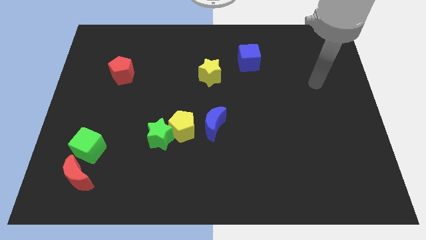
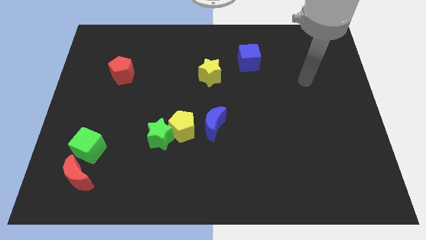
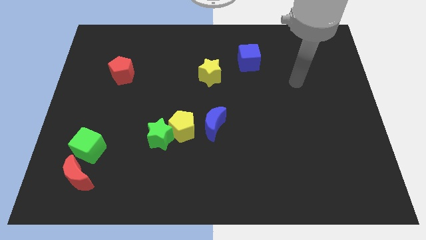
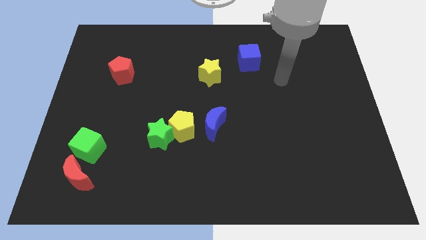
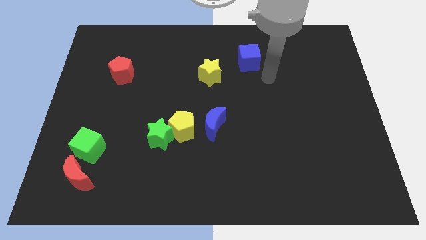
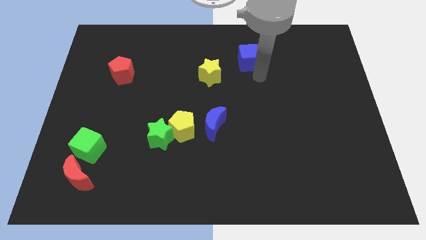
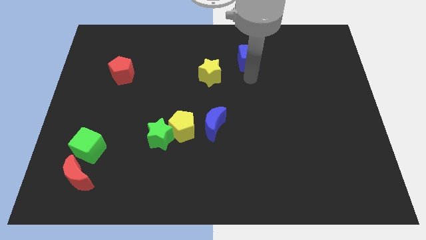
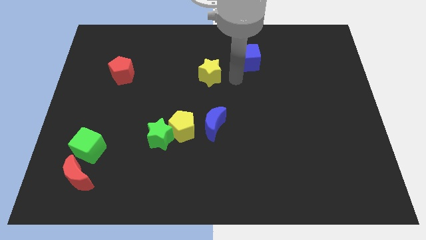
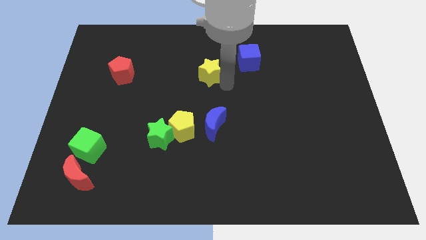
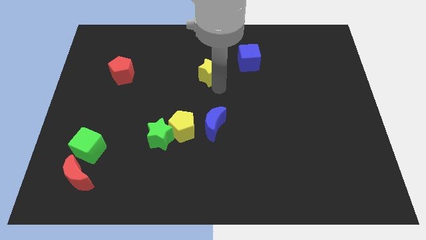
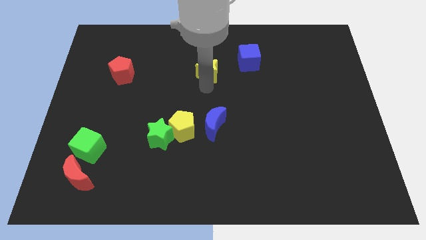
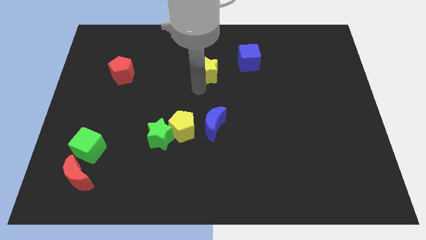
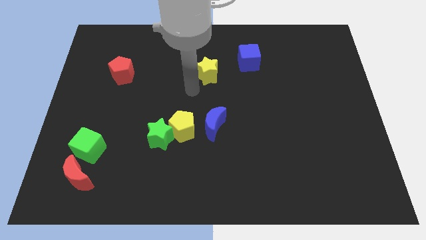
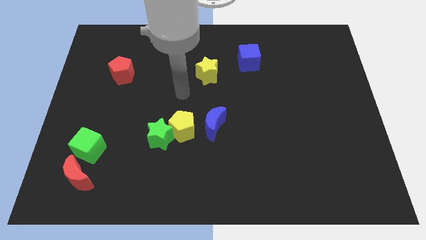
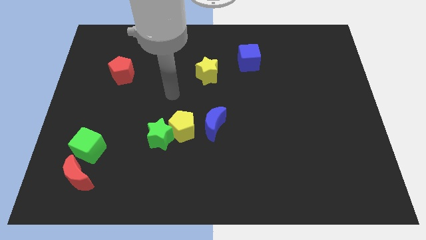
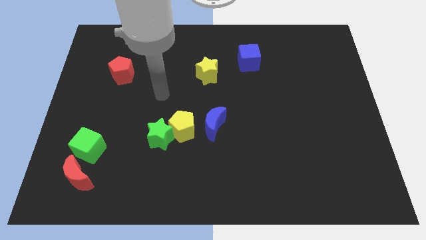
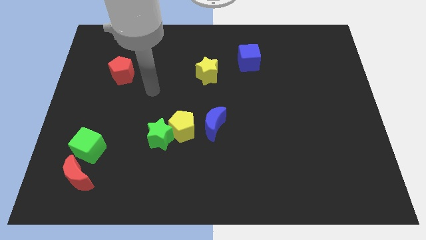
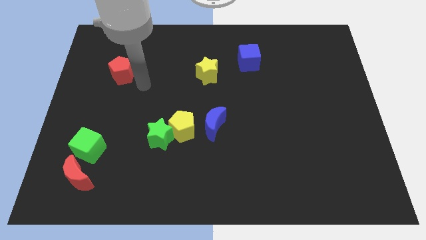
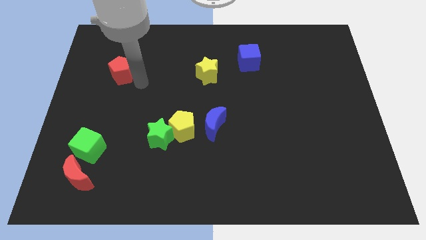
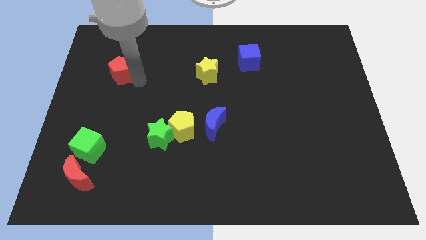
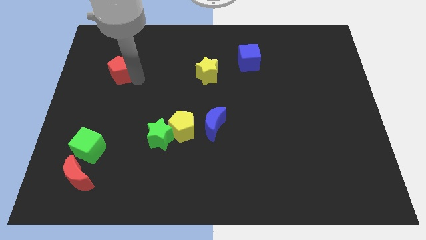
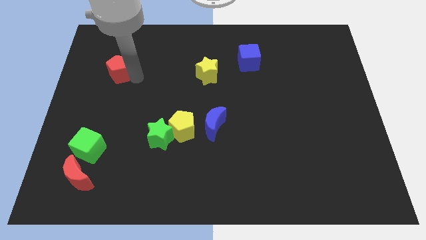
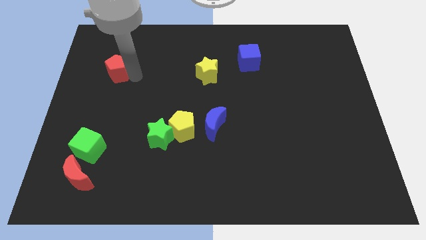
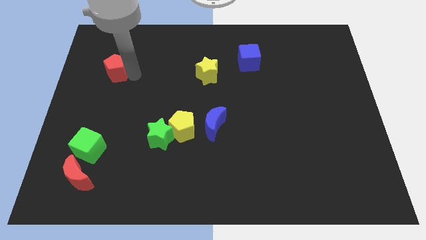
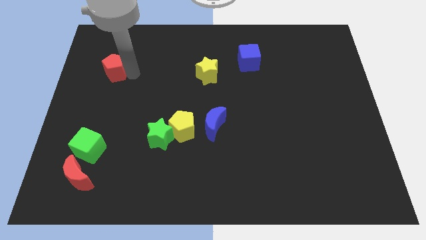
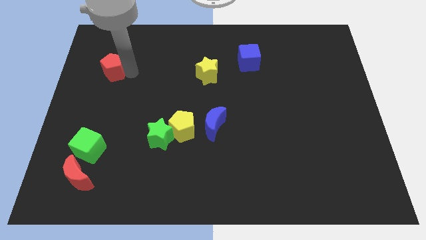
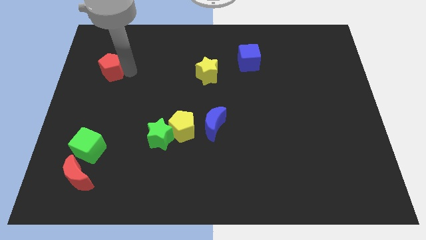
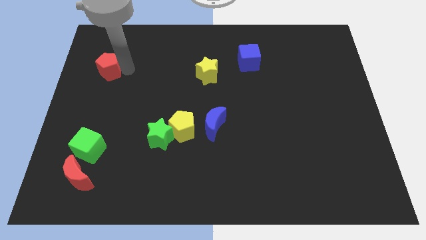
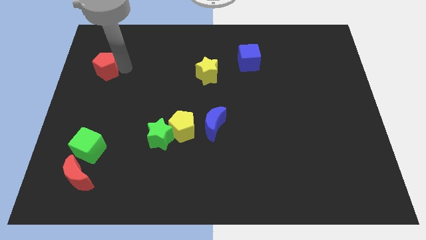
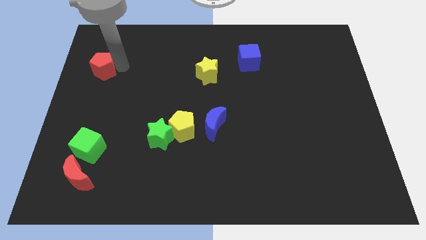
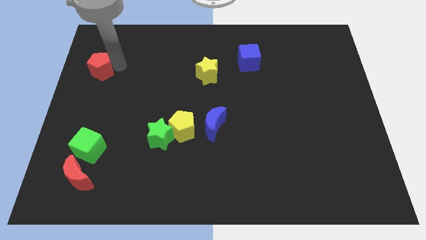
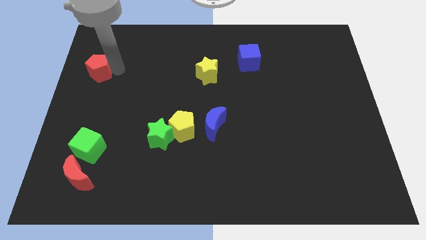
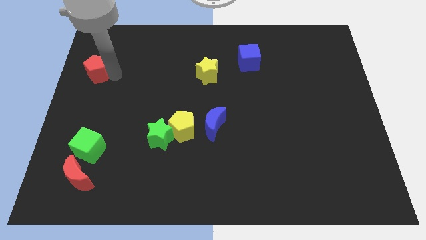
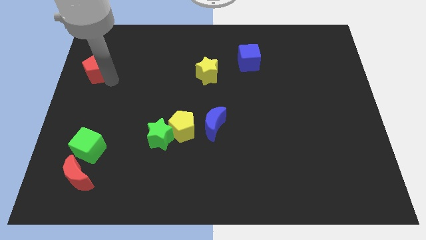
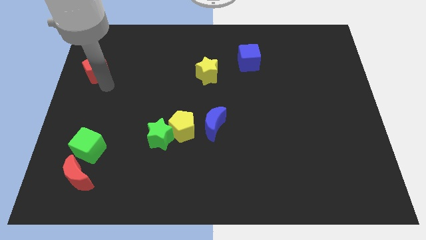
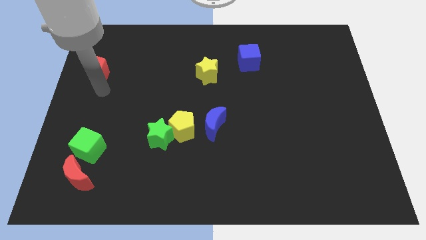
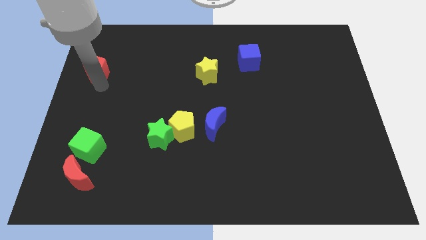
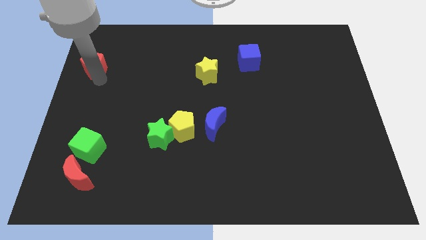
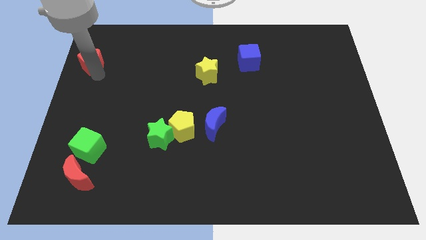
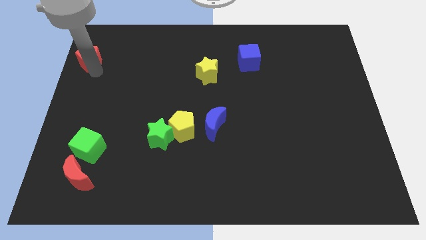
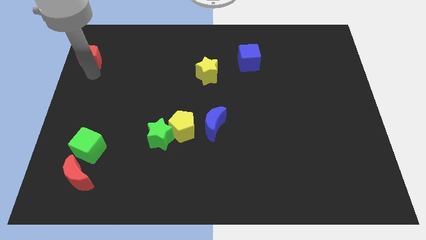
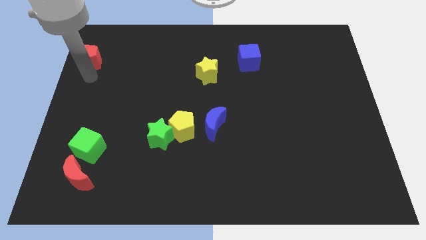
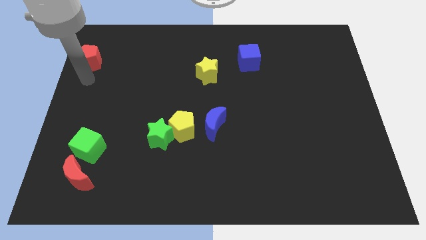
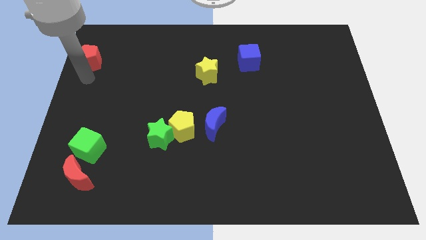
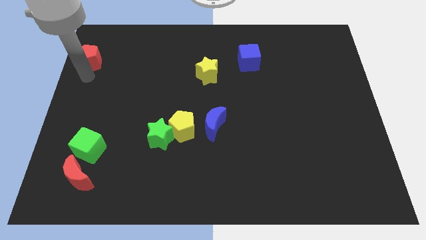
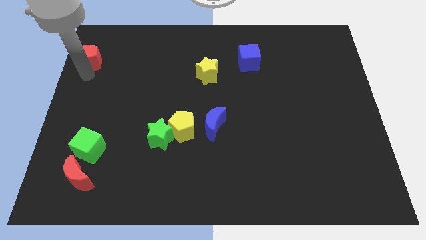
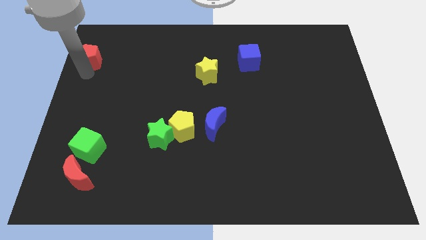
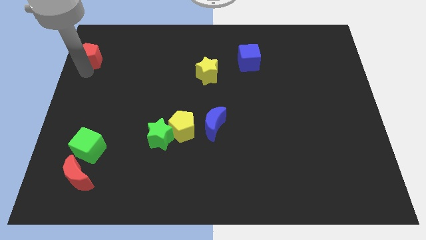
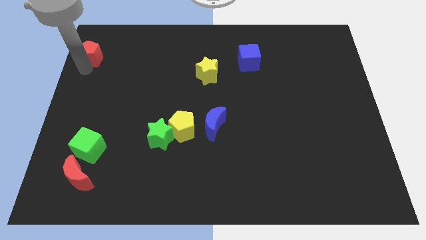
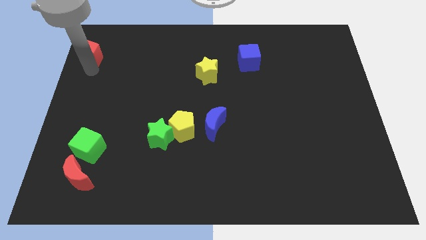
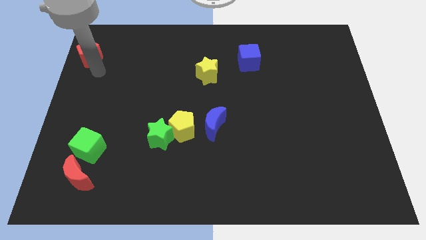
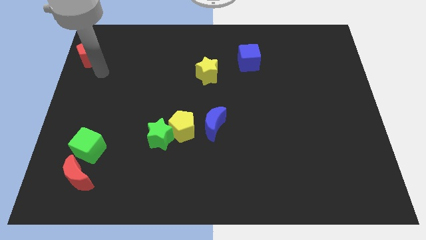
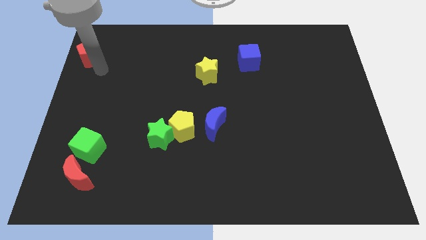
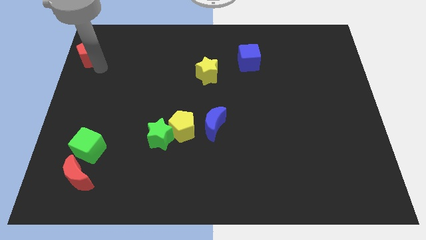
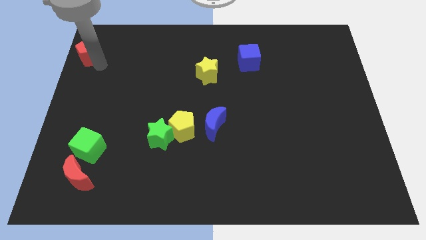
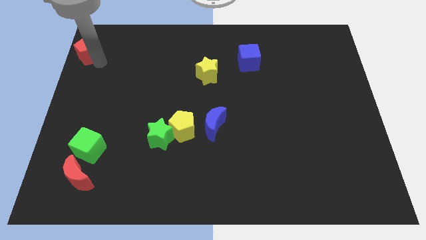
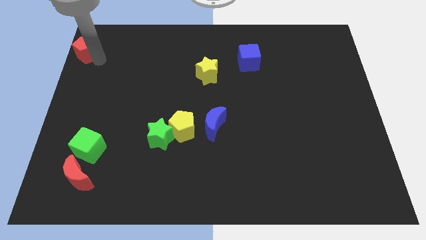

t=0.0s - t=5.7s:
move the red pentagon to the top left of the board
